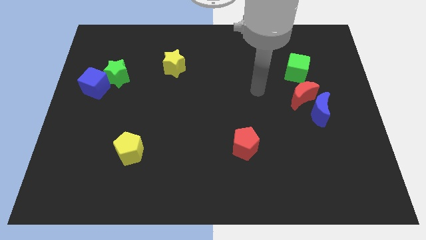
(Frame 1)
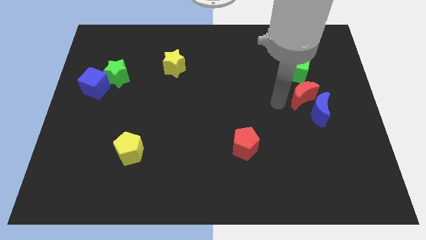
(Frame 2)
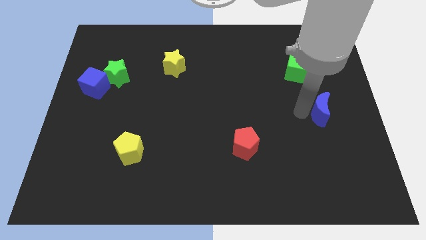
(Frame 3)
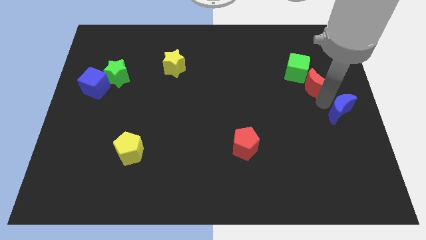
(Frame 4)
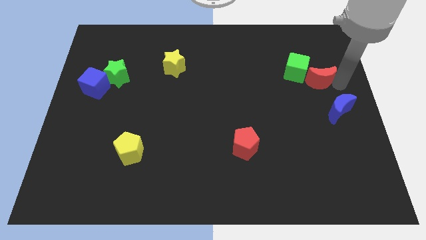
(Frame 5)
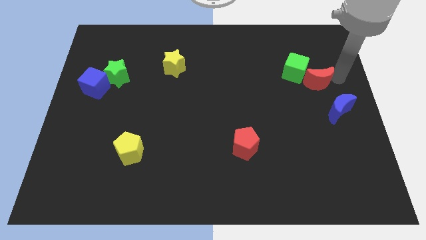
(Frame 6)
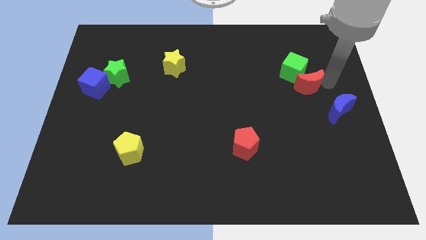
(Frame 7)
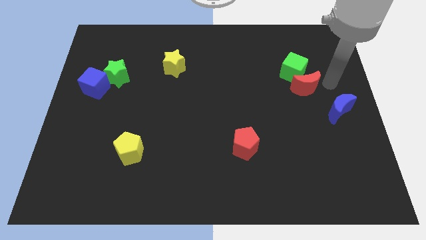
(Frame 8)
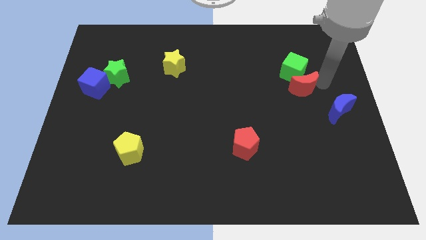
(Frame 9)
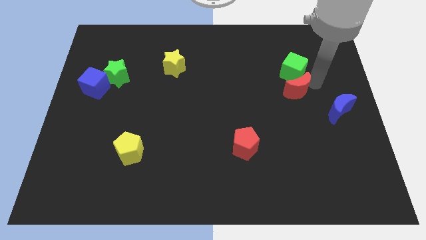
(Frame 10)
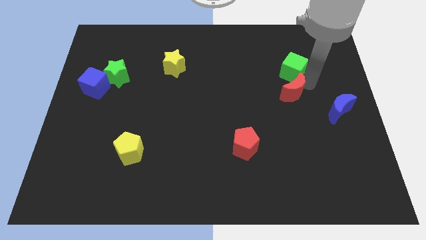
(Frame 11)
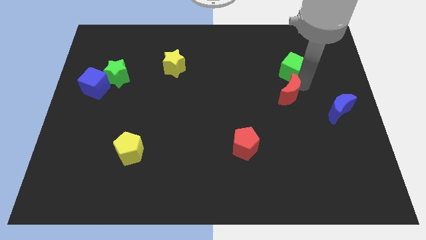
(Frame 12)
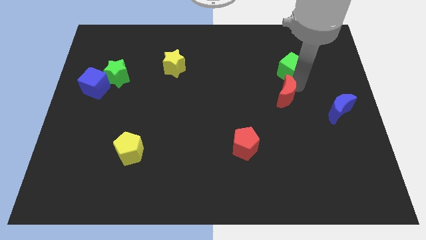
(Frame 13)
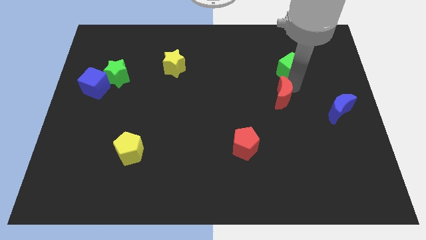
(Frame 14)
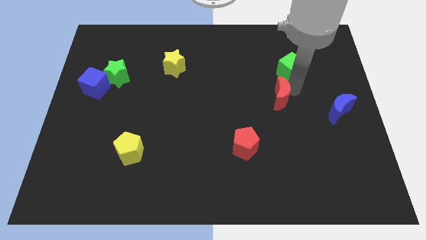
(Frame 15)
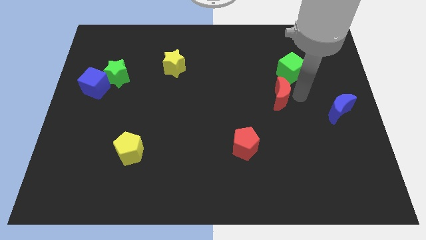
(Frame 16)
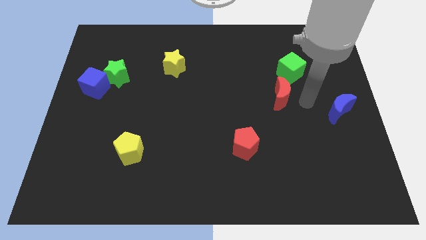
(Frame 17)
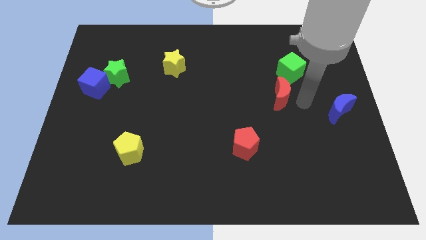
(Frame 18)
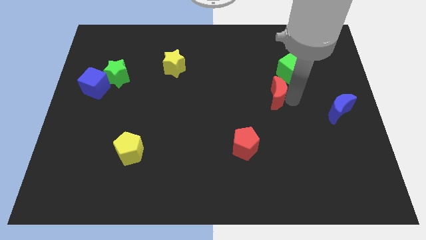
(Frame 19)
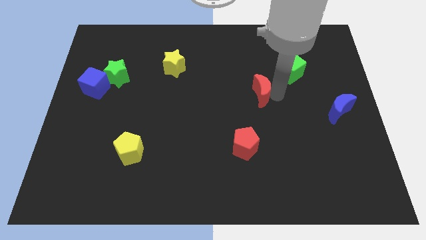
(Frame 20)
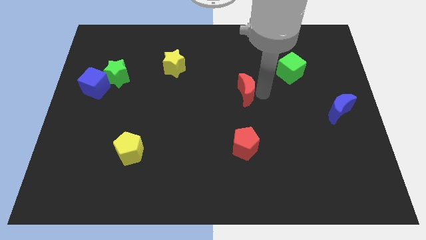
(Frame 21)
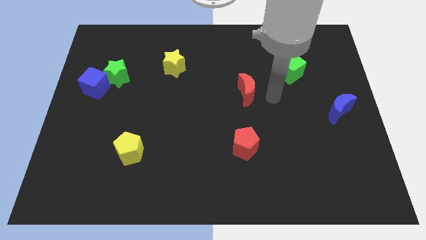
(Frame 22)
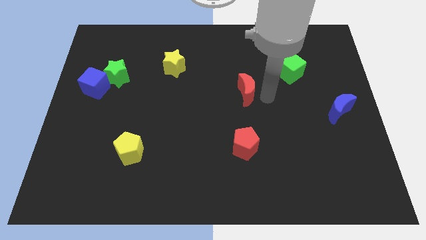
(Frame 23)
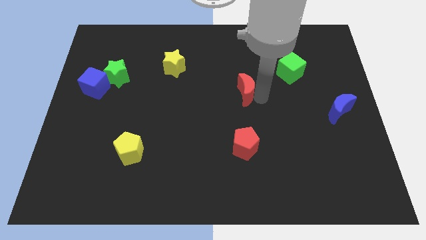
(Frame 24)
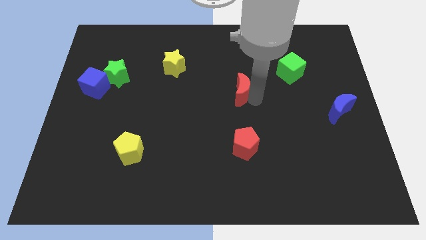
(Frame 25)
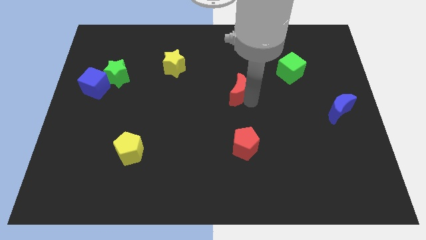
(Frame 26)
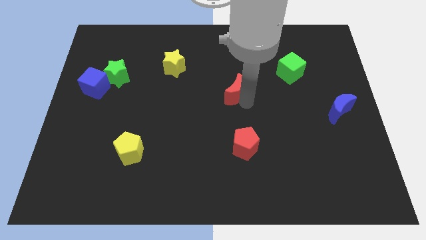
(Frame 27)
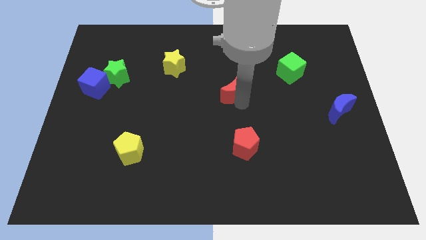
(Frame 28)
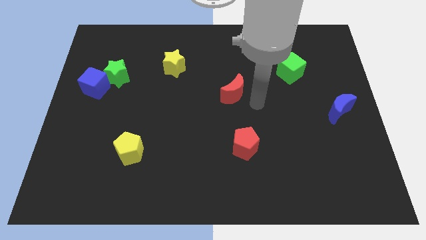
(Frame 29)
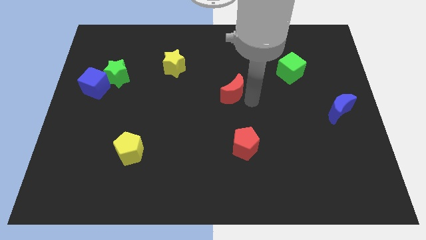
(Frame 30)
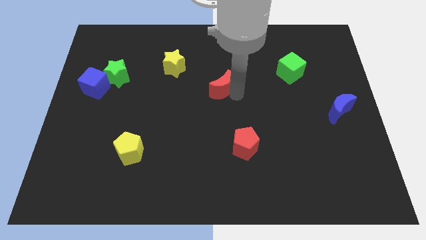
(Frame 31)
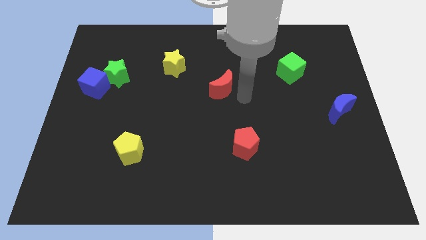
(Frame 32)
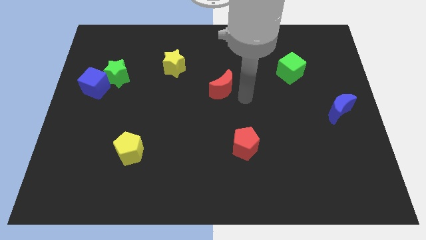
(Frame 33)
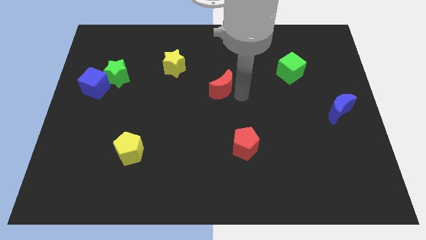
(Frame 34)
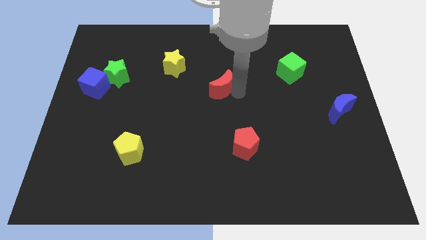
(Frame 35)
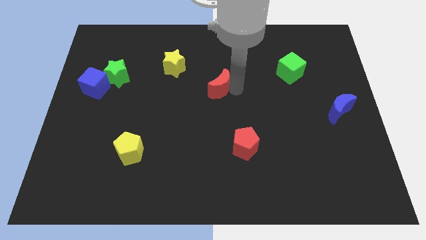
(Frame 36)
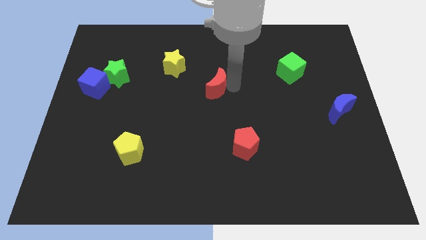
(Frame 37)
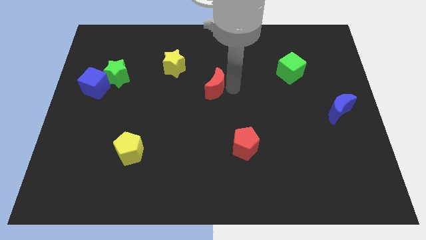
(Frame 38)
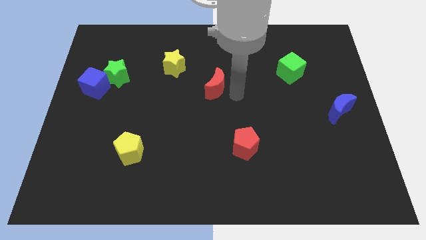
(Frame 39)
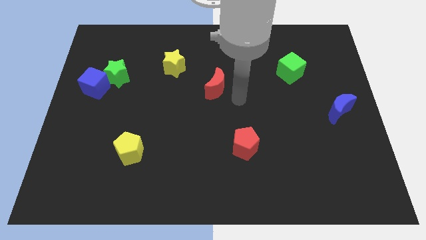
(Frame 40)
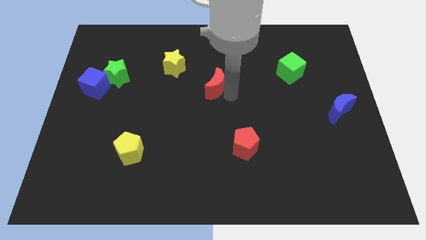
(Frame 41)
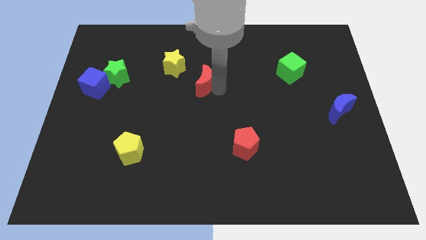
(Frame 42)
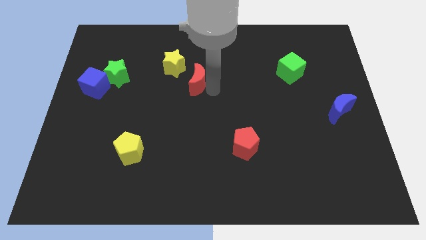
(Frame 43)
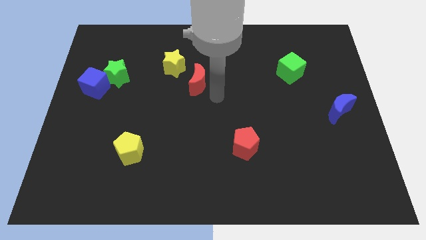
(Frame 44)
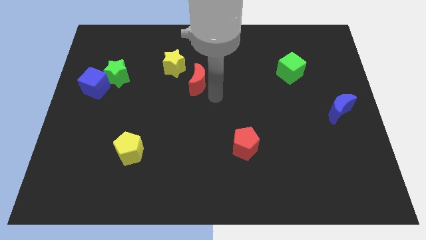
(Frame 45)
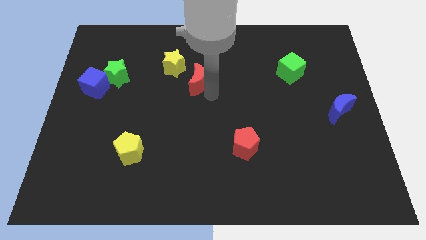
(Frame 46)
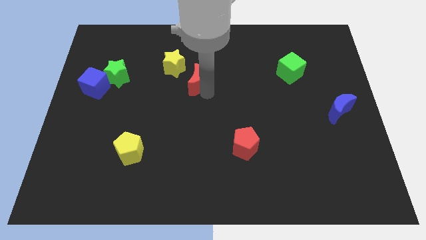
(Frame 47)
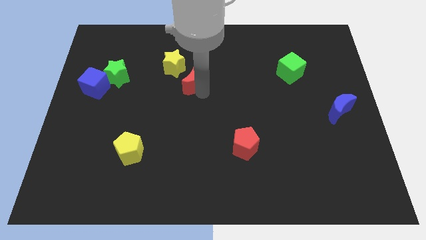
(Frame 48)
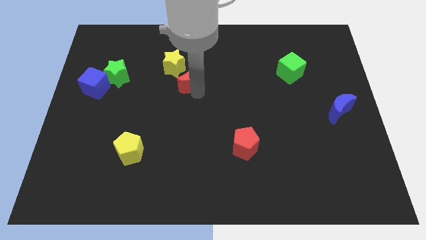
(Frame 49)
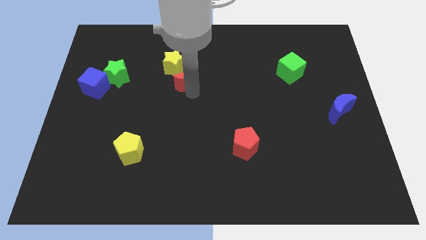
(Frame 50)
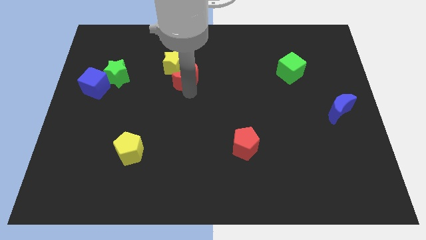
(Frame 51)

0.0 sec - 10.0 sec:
push the red moon towards the yellow star

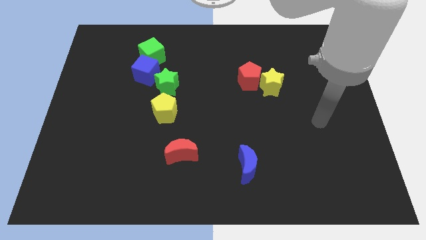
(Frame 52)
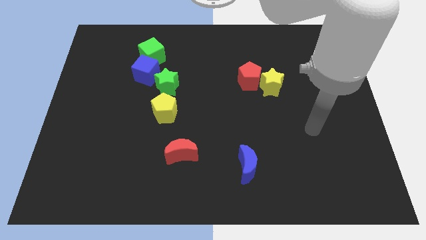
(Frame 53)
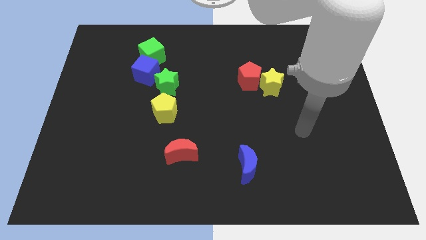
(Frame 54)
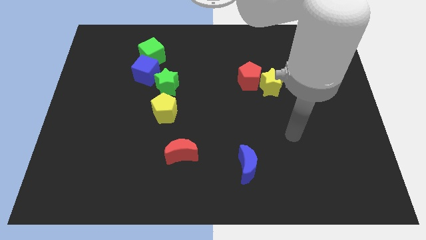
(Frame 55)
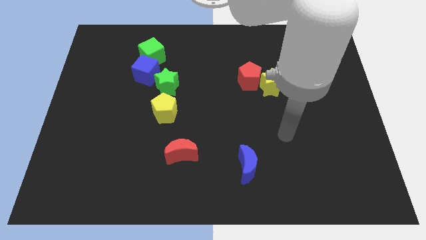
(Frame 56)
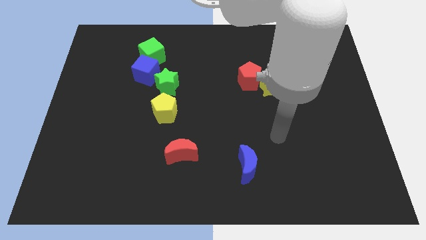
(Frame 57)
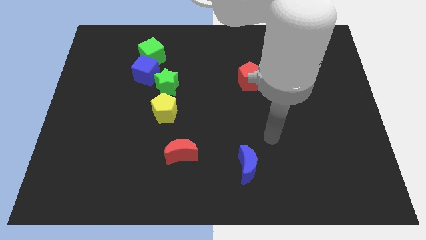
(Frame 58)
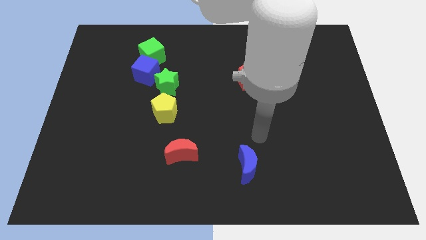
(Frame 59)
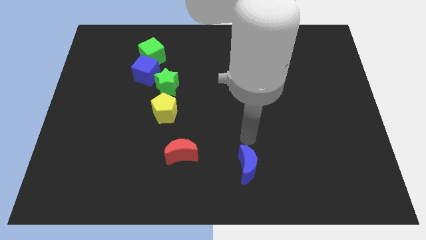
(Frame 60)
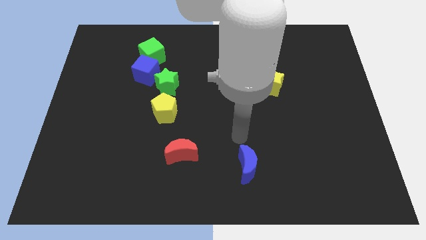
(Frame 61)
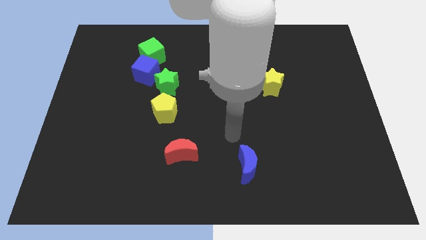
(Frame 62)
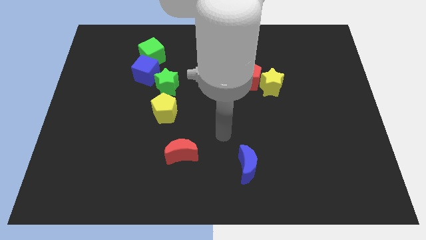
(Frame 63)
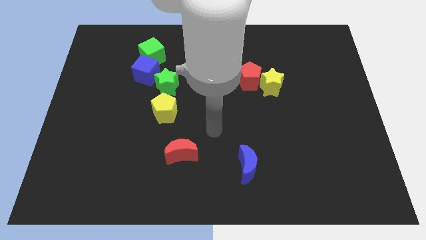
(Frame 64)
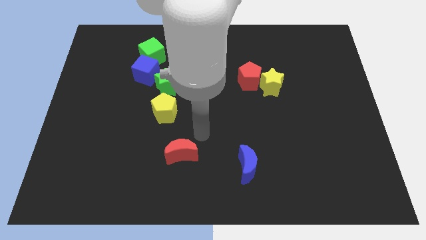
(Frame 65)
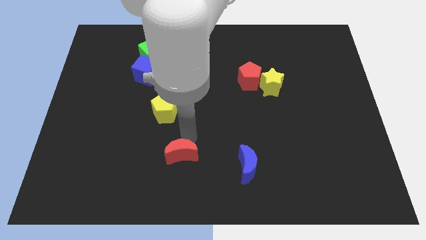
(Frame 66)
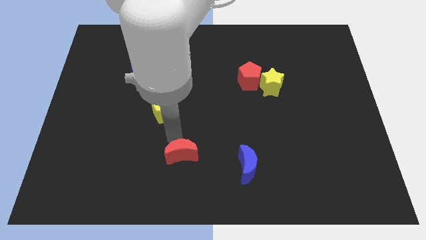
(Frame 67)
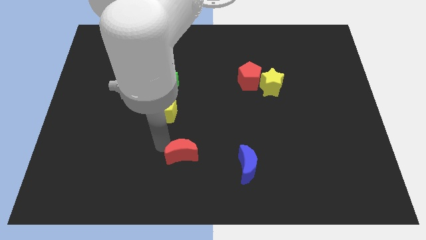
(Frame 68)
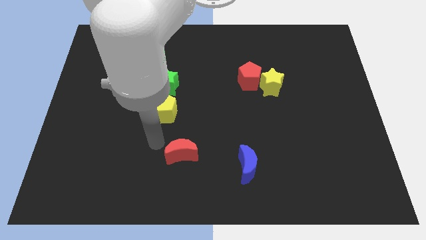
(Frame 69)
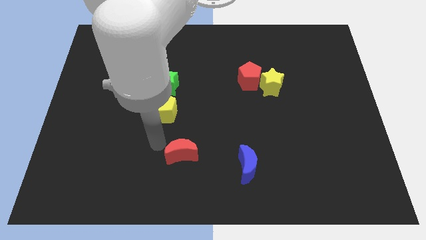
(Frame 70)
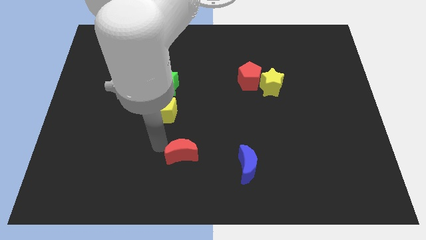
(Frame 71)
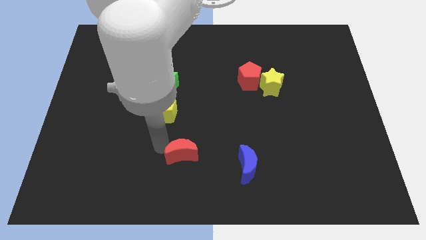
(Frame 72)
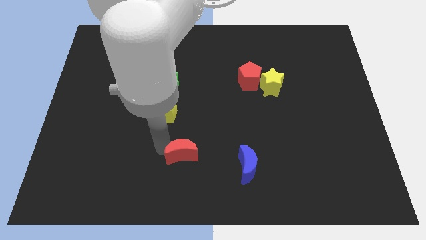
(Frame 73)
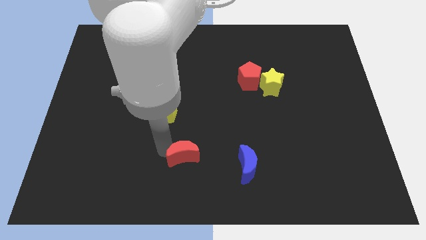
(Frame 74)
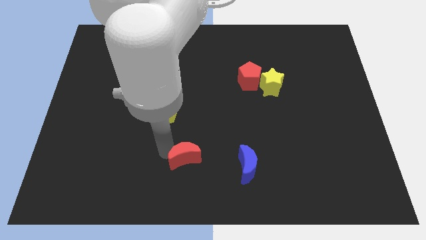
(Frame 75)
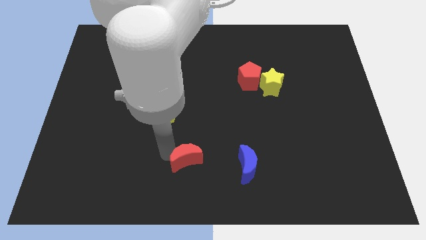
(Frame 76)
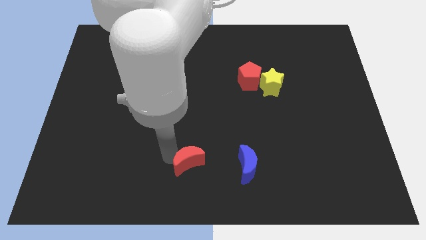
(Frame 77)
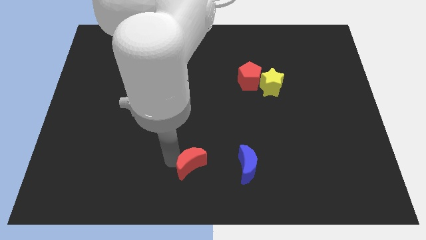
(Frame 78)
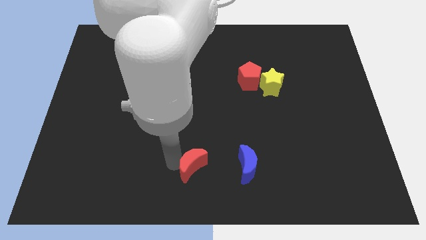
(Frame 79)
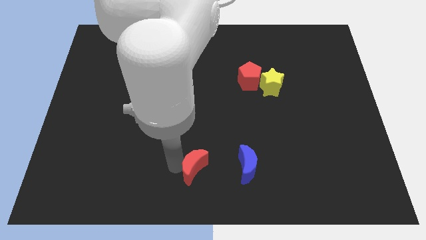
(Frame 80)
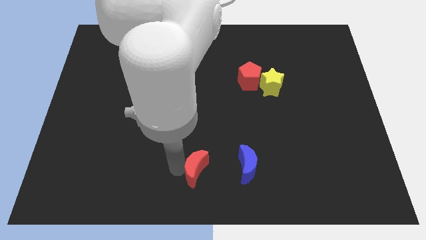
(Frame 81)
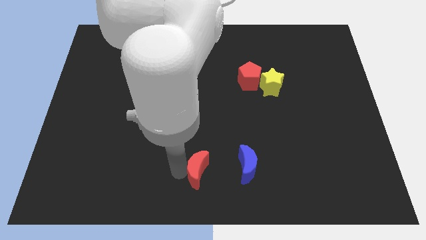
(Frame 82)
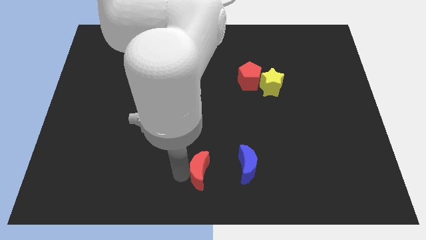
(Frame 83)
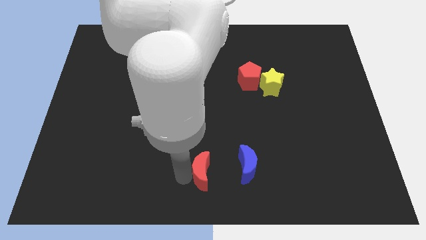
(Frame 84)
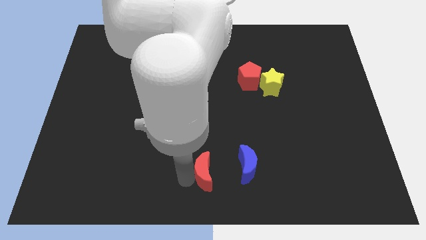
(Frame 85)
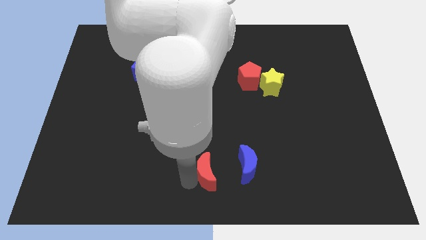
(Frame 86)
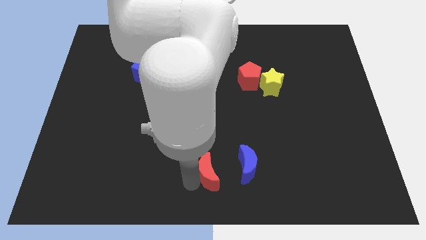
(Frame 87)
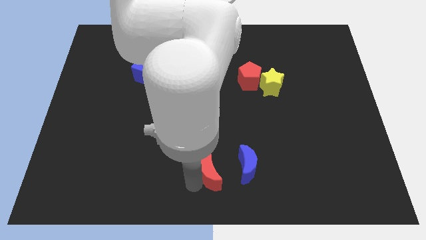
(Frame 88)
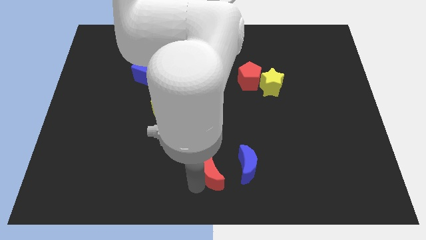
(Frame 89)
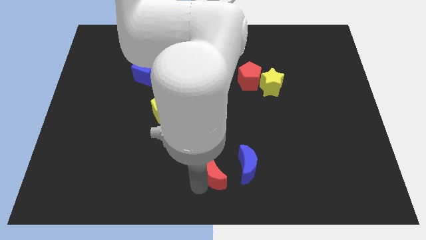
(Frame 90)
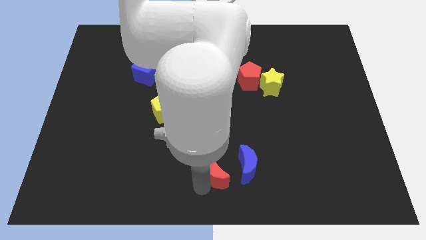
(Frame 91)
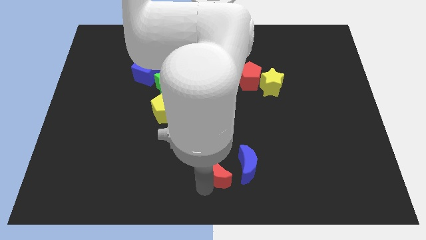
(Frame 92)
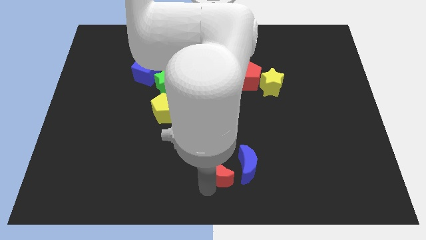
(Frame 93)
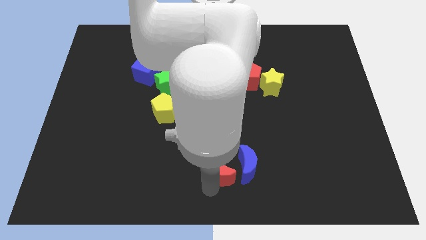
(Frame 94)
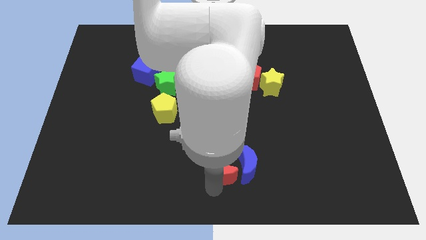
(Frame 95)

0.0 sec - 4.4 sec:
move the red moon towards the blue moon
